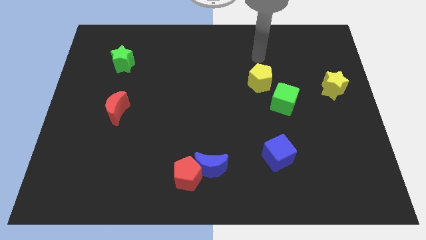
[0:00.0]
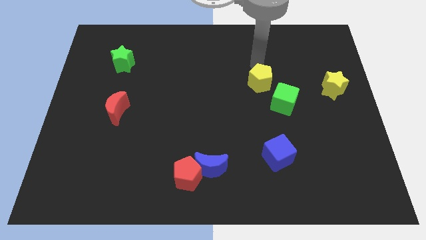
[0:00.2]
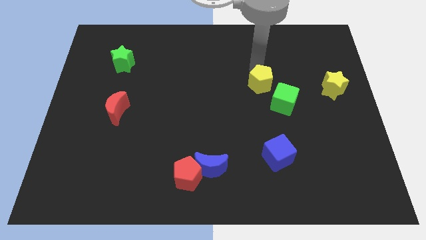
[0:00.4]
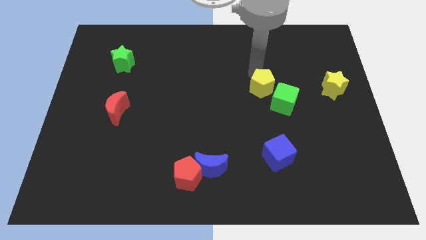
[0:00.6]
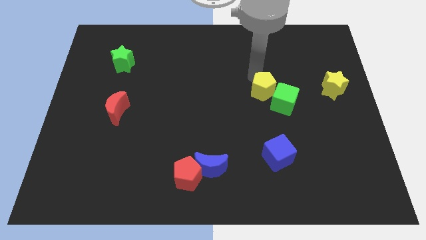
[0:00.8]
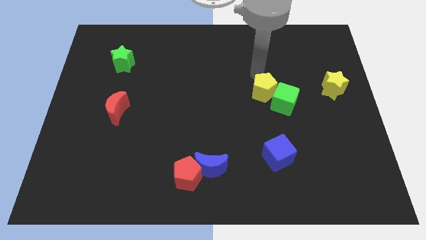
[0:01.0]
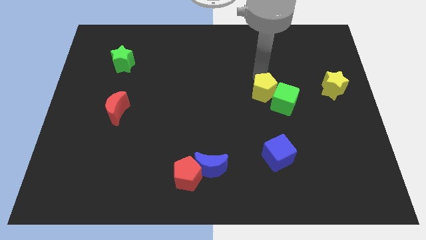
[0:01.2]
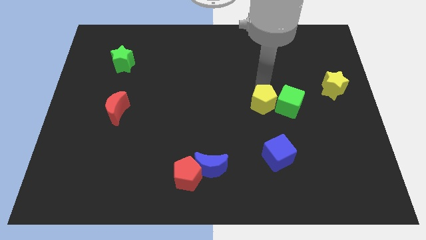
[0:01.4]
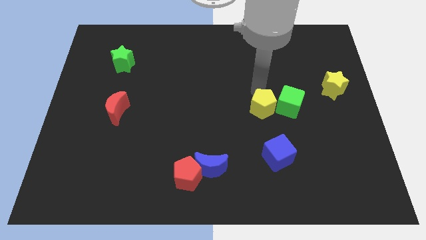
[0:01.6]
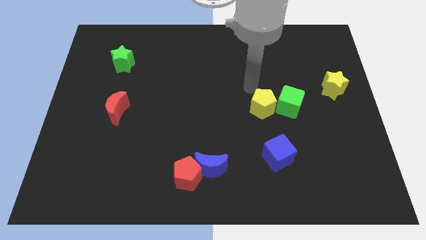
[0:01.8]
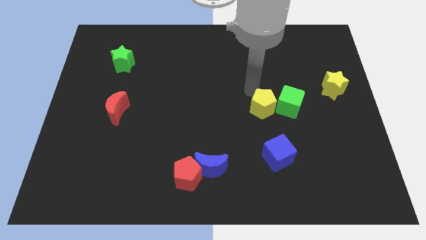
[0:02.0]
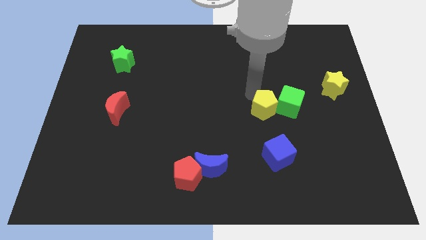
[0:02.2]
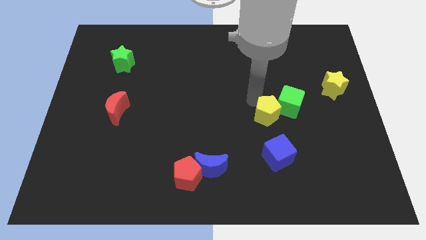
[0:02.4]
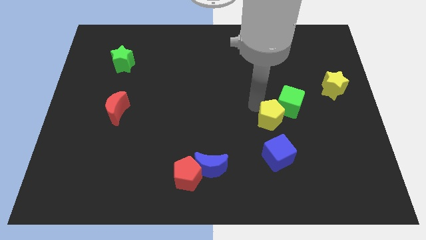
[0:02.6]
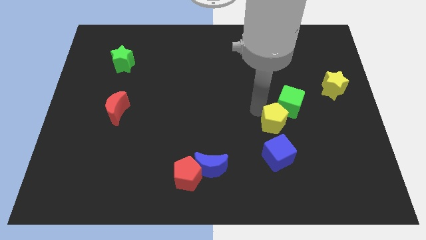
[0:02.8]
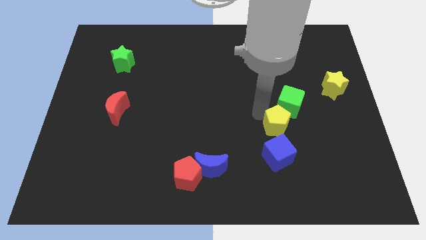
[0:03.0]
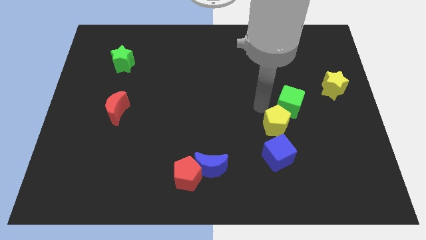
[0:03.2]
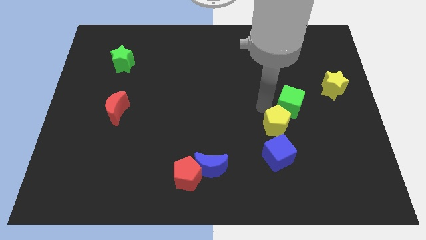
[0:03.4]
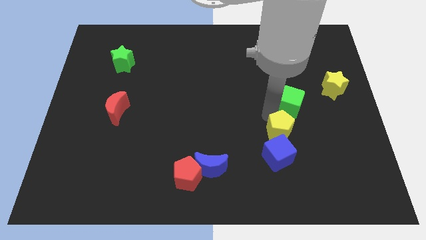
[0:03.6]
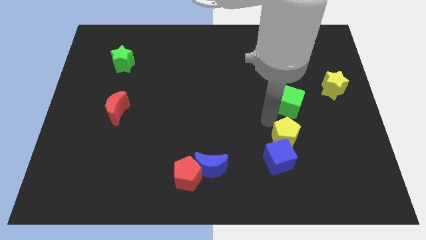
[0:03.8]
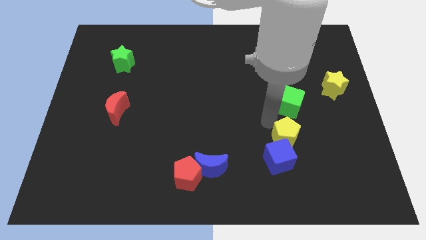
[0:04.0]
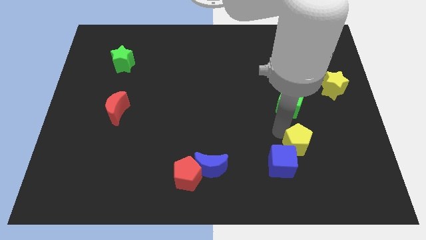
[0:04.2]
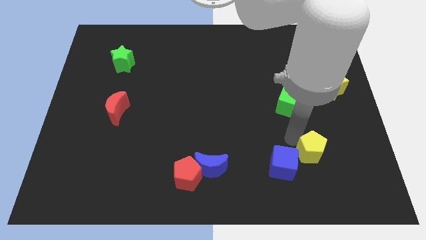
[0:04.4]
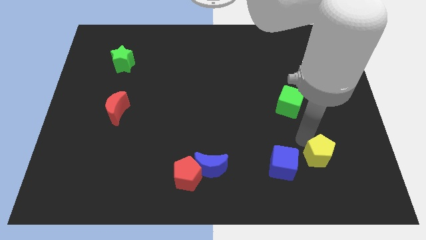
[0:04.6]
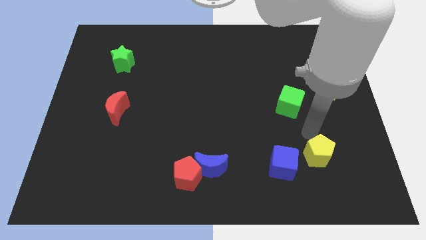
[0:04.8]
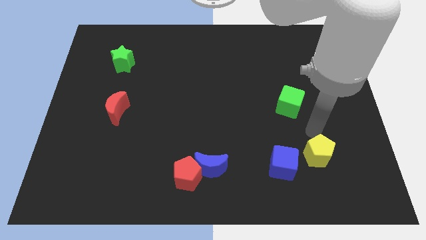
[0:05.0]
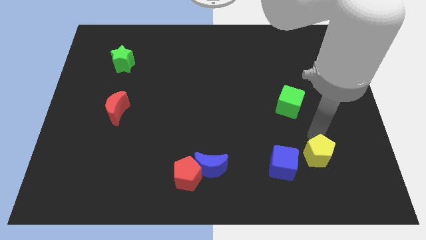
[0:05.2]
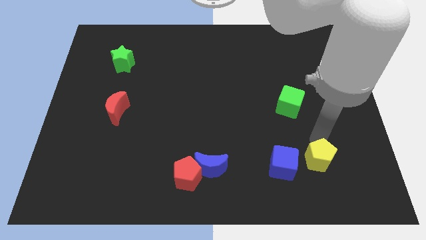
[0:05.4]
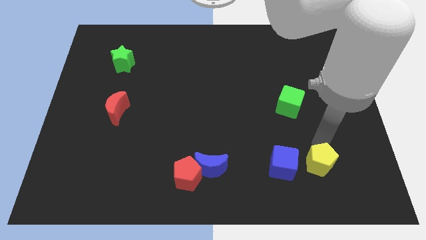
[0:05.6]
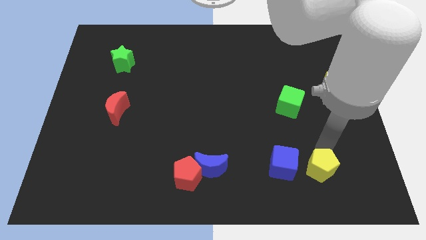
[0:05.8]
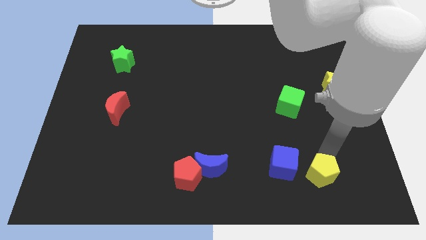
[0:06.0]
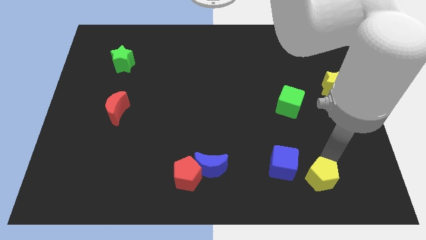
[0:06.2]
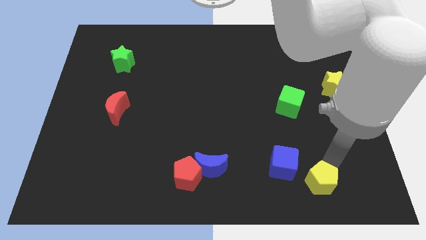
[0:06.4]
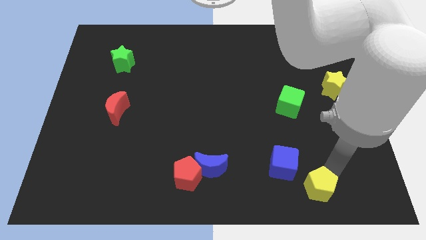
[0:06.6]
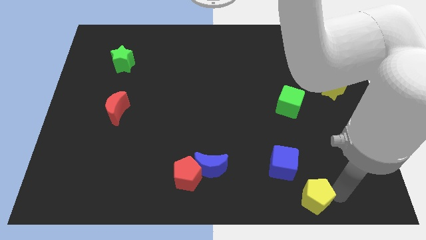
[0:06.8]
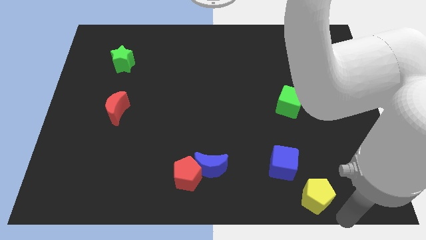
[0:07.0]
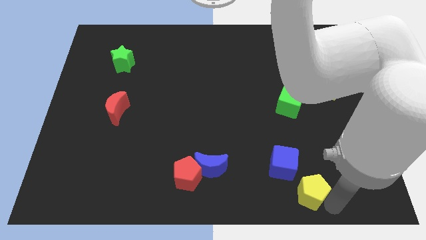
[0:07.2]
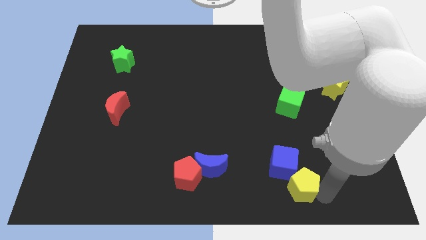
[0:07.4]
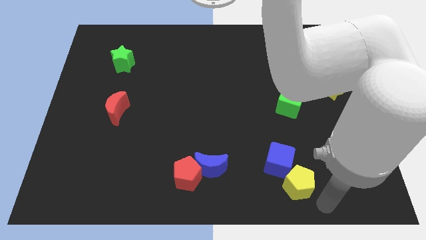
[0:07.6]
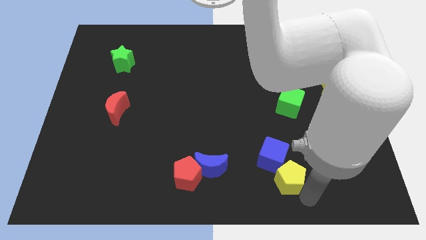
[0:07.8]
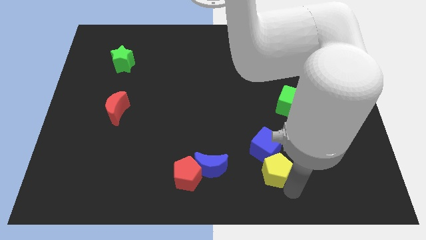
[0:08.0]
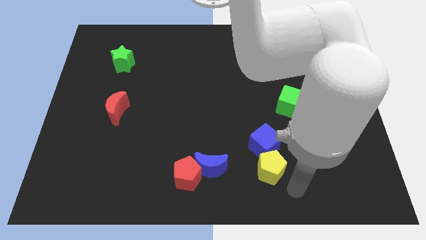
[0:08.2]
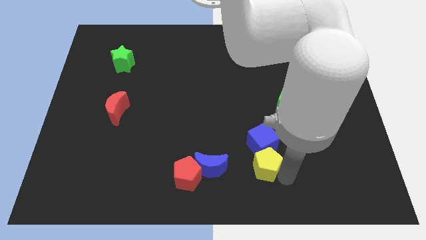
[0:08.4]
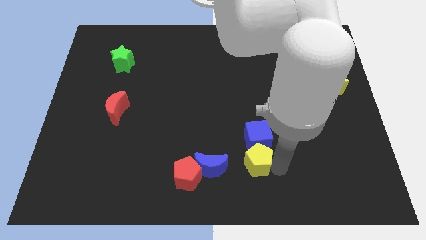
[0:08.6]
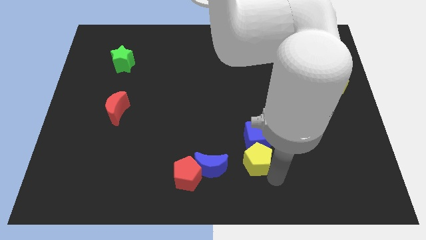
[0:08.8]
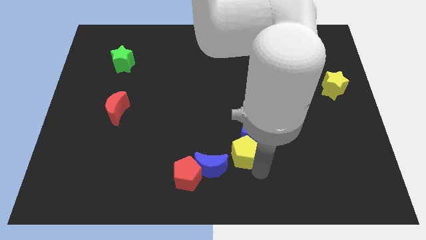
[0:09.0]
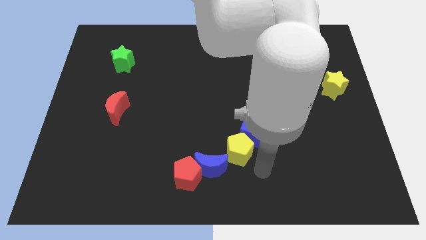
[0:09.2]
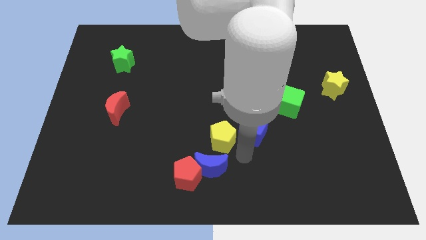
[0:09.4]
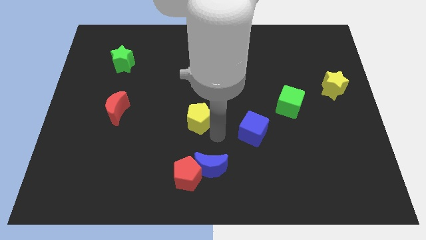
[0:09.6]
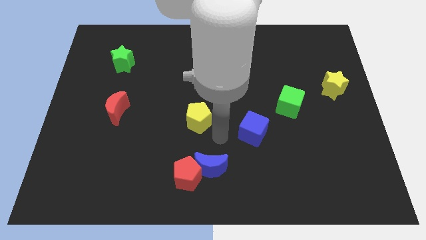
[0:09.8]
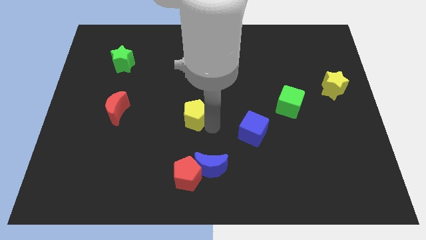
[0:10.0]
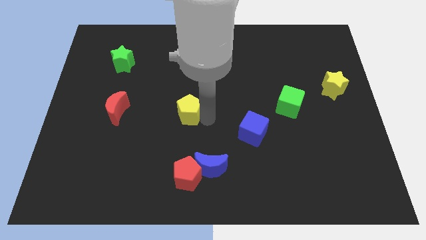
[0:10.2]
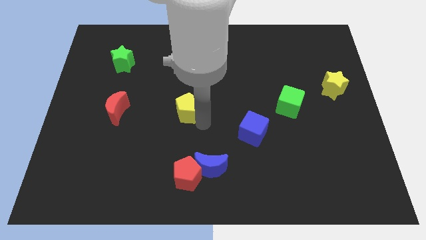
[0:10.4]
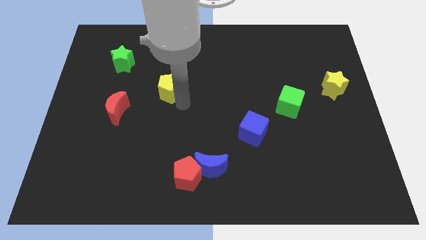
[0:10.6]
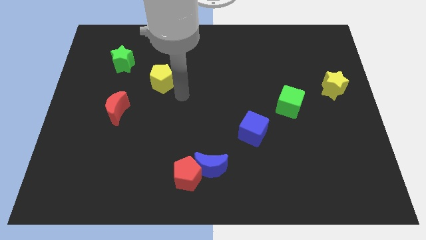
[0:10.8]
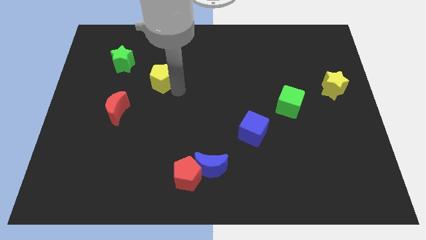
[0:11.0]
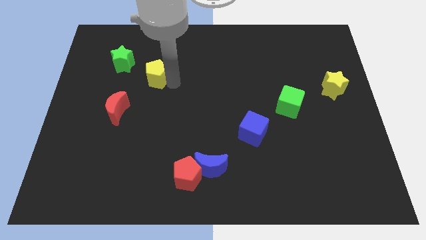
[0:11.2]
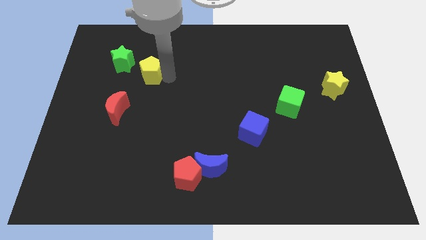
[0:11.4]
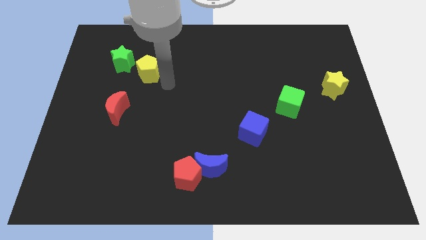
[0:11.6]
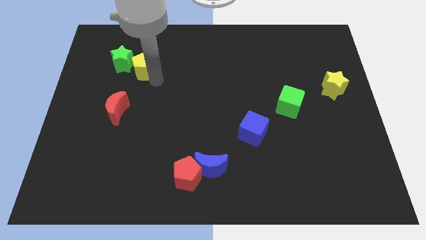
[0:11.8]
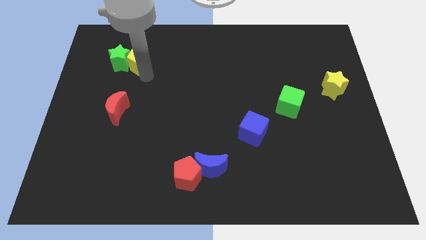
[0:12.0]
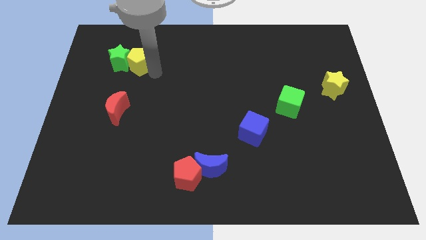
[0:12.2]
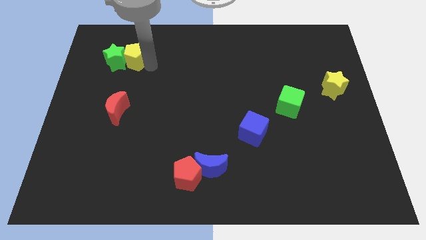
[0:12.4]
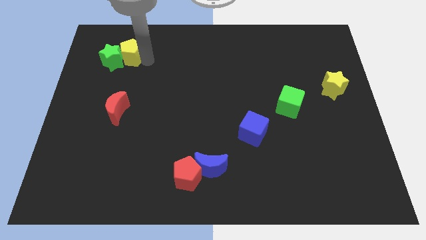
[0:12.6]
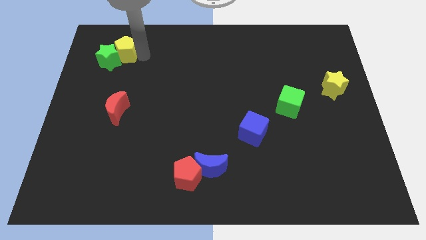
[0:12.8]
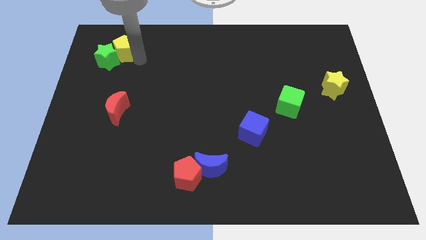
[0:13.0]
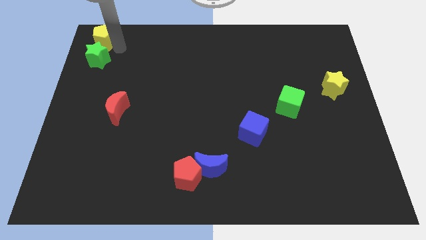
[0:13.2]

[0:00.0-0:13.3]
push the yellow pentagon to the top left
